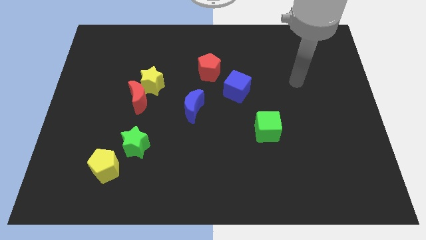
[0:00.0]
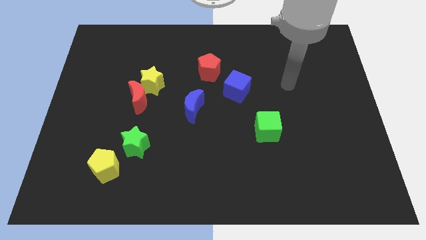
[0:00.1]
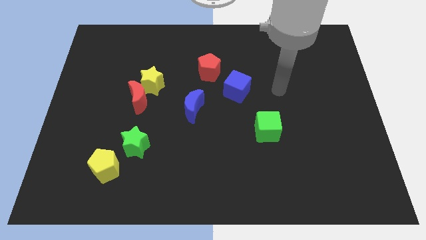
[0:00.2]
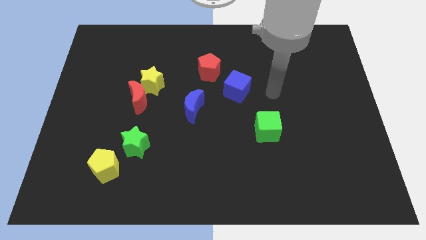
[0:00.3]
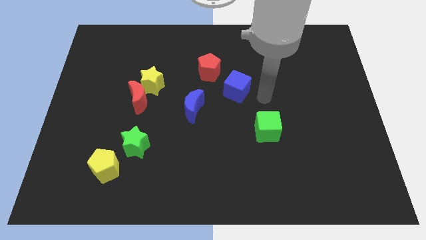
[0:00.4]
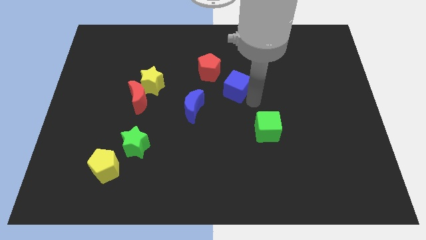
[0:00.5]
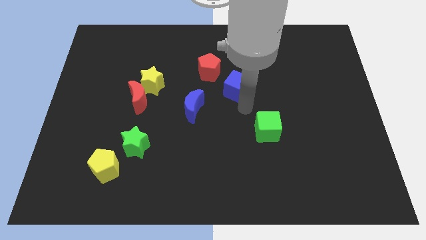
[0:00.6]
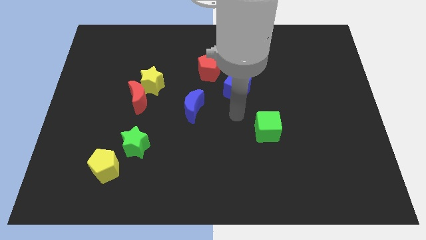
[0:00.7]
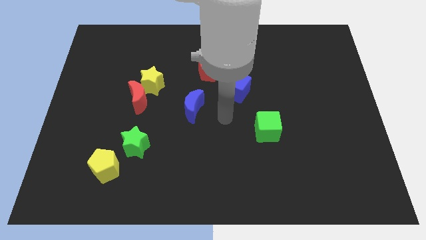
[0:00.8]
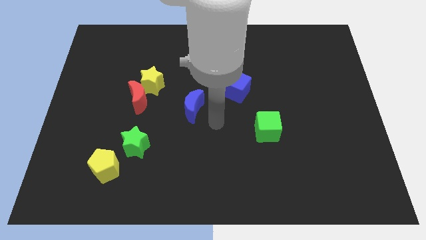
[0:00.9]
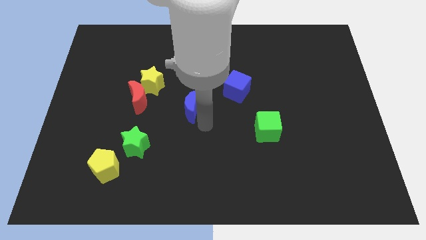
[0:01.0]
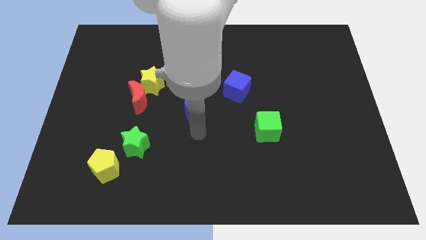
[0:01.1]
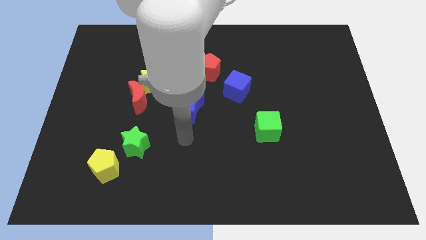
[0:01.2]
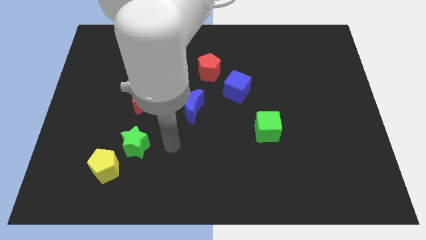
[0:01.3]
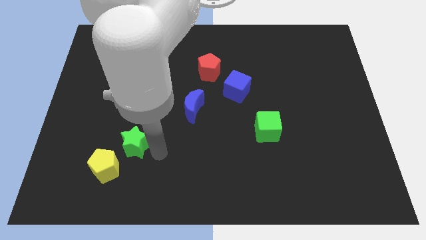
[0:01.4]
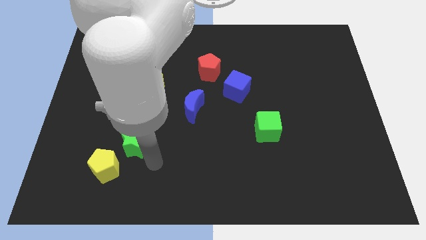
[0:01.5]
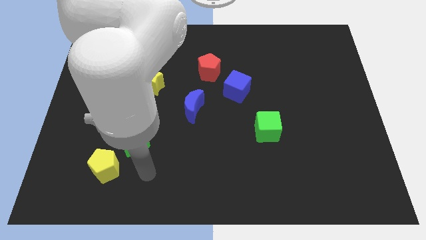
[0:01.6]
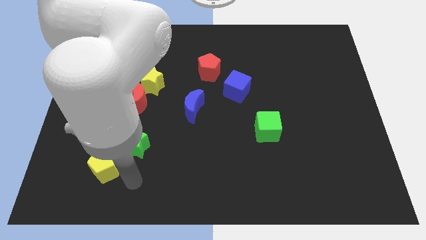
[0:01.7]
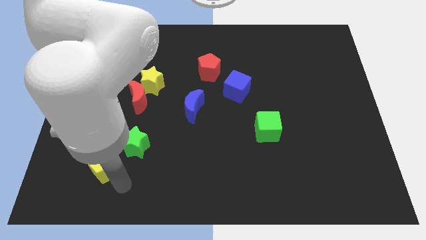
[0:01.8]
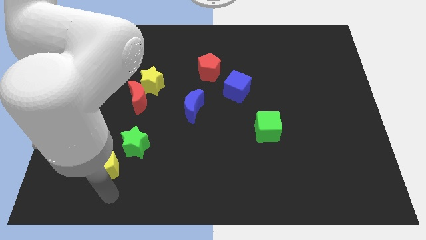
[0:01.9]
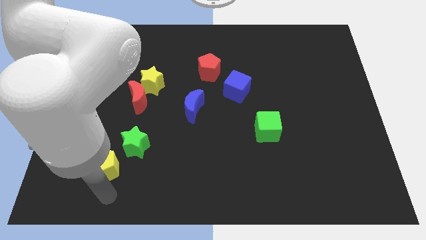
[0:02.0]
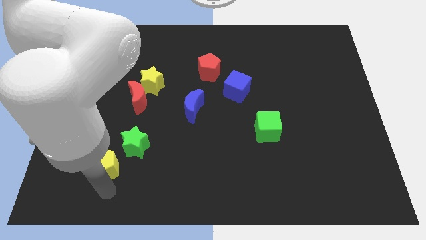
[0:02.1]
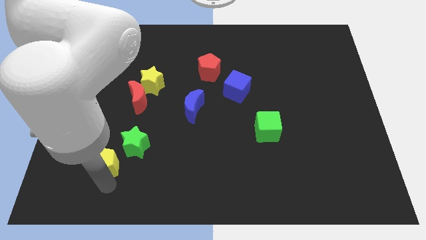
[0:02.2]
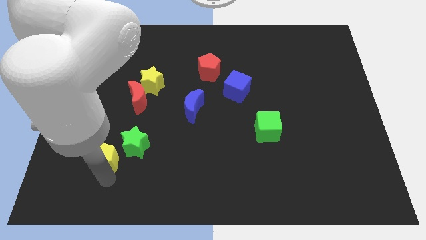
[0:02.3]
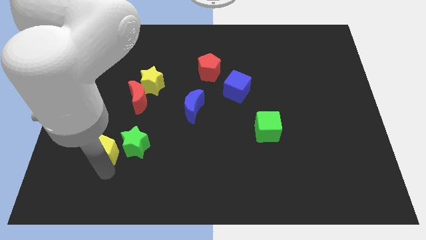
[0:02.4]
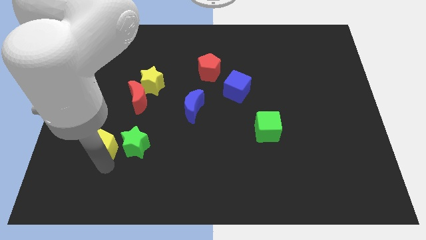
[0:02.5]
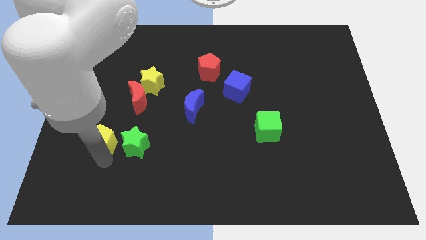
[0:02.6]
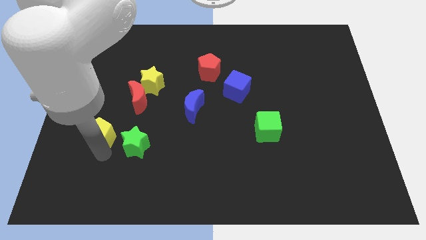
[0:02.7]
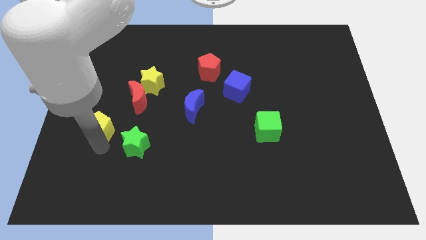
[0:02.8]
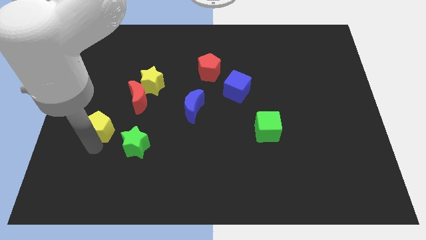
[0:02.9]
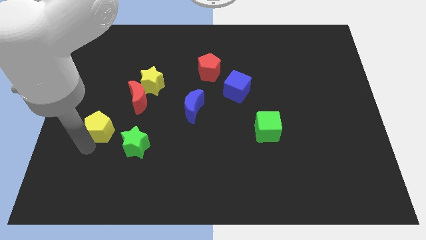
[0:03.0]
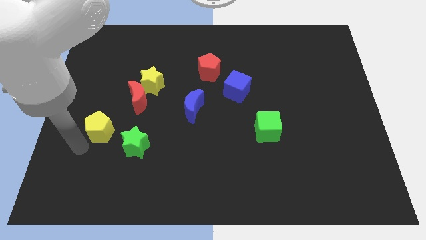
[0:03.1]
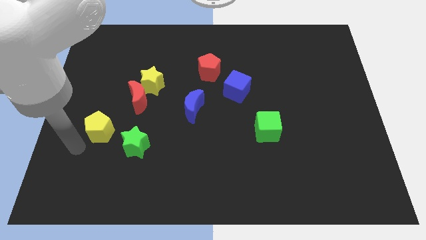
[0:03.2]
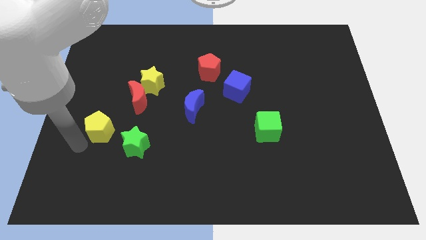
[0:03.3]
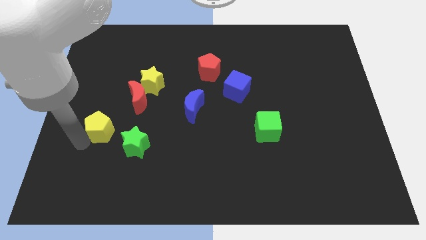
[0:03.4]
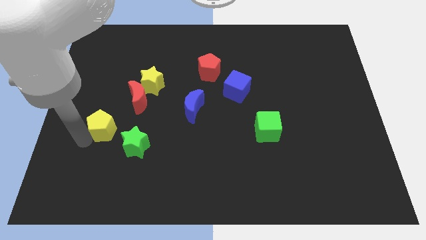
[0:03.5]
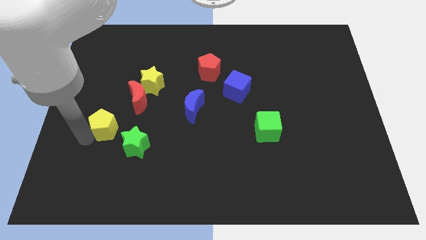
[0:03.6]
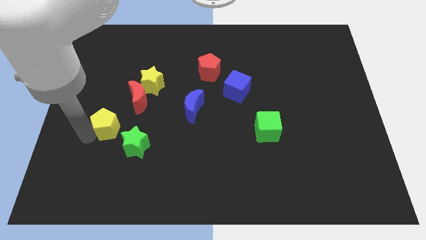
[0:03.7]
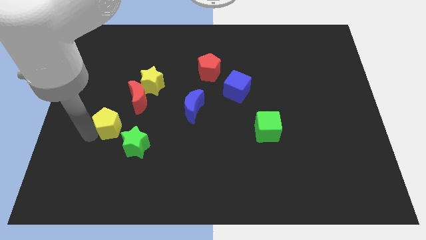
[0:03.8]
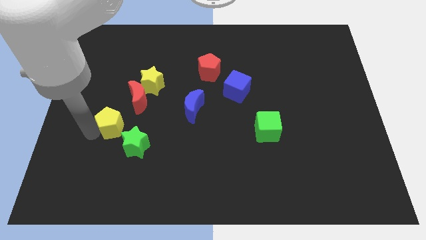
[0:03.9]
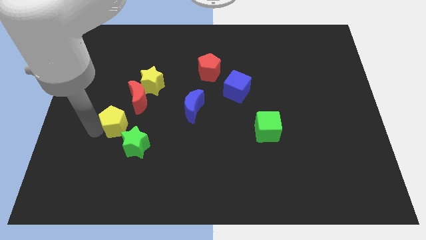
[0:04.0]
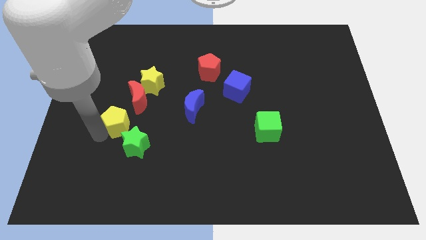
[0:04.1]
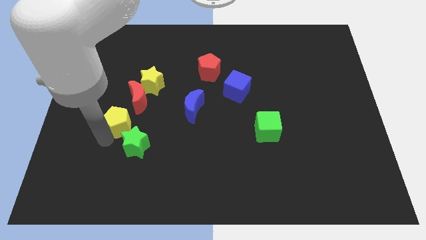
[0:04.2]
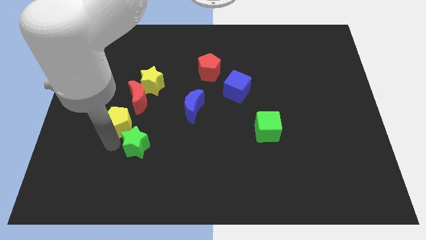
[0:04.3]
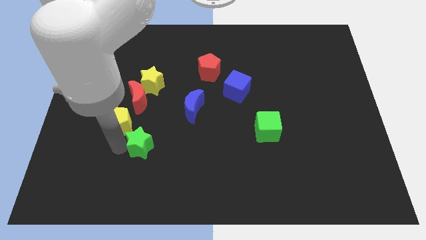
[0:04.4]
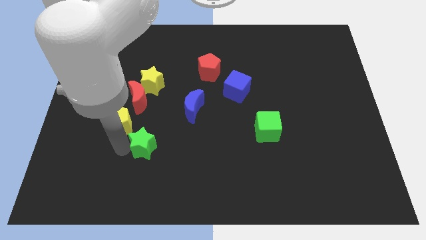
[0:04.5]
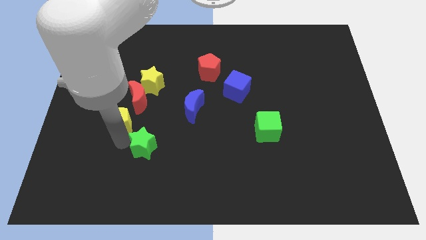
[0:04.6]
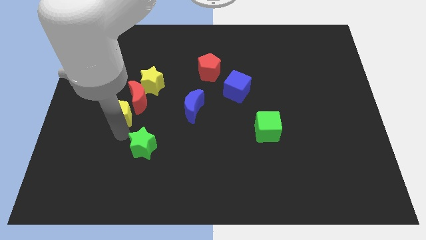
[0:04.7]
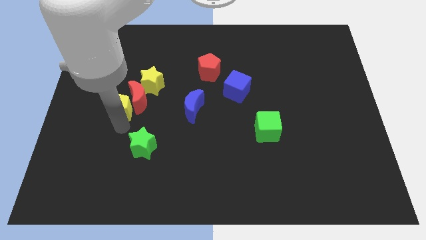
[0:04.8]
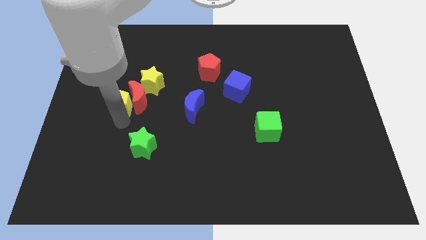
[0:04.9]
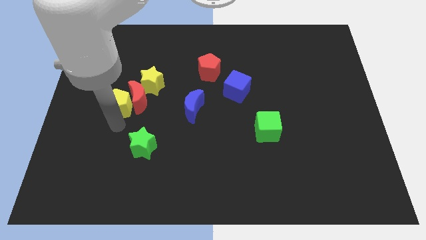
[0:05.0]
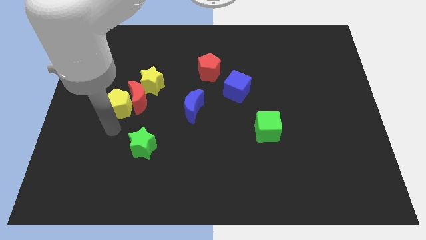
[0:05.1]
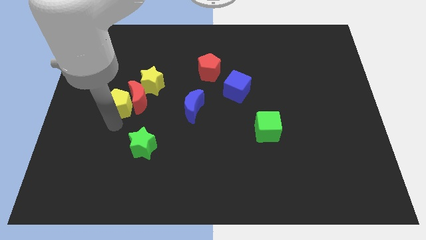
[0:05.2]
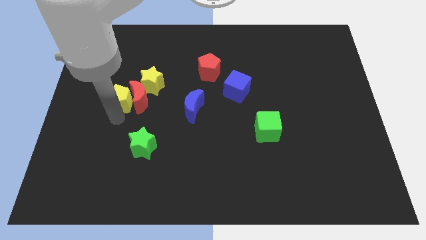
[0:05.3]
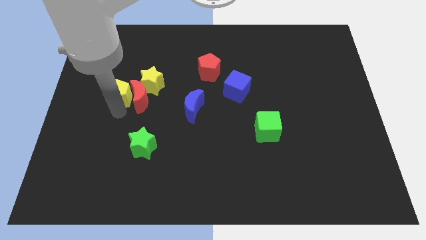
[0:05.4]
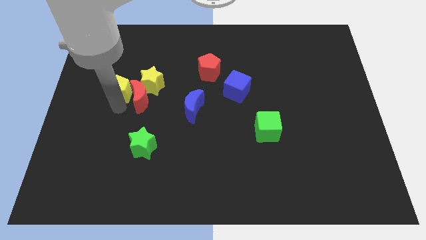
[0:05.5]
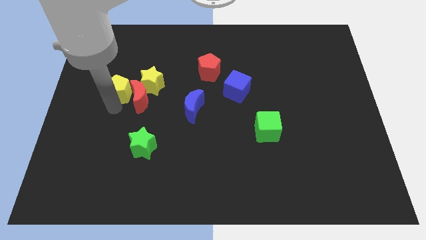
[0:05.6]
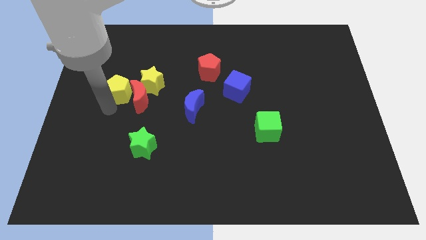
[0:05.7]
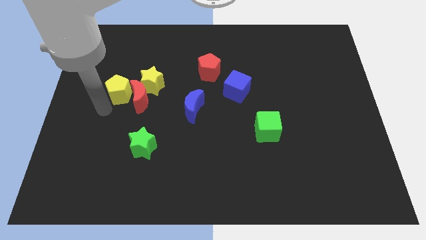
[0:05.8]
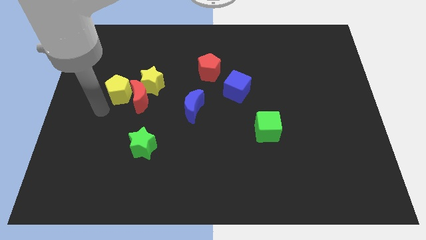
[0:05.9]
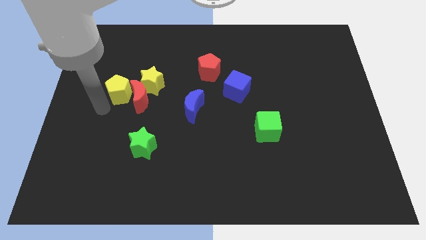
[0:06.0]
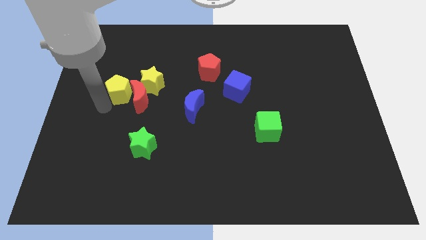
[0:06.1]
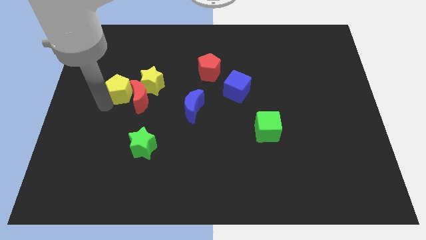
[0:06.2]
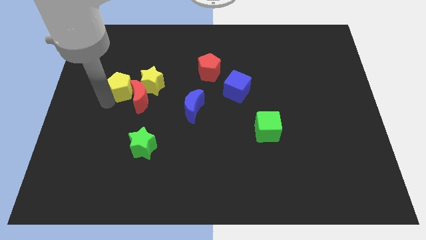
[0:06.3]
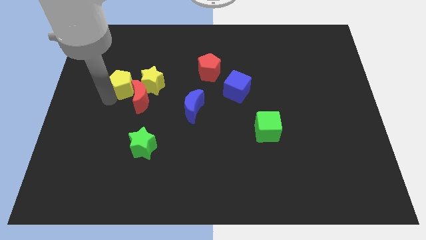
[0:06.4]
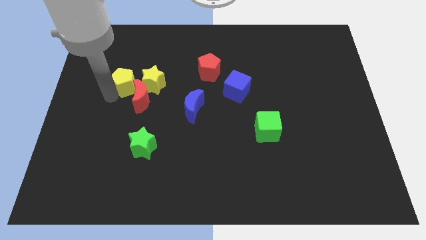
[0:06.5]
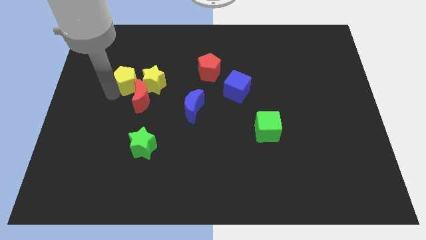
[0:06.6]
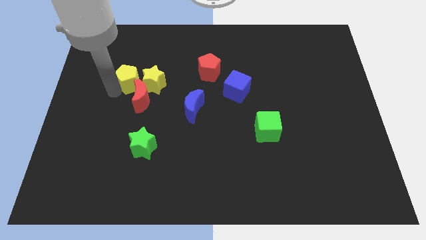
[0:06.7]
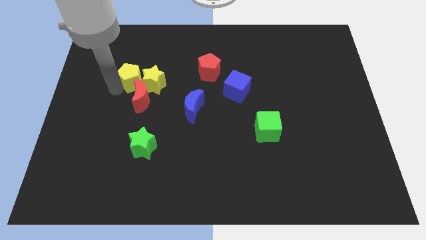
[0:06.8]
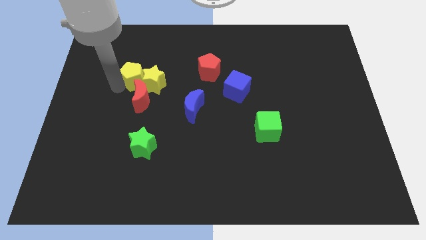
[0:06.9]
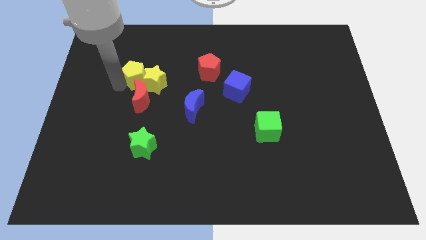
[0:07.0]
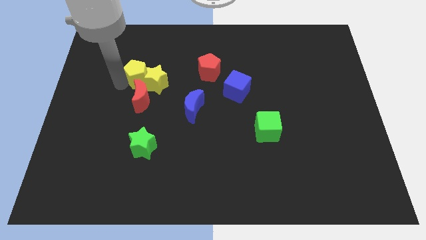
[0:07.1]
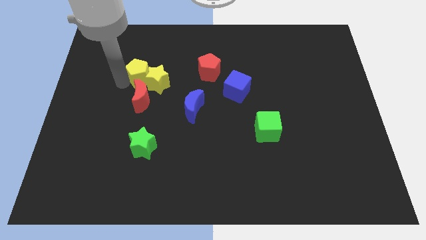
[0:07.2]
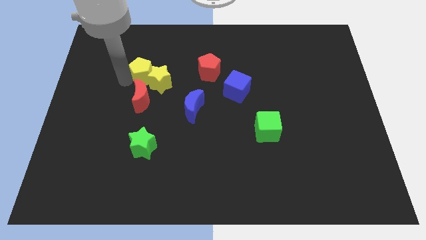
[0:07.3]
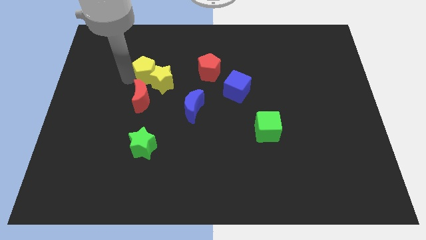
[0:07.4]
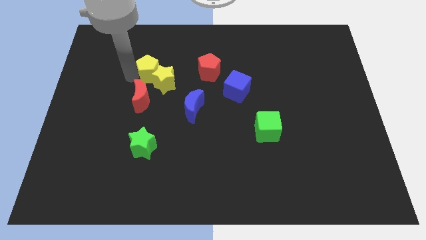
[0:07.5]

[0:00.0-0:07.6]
put the yellow pentagon to the top of the yellow star
